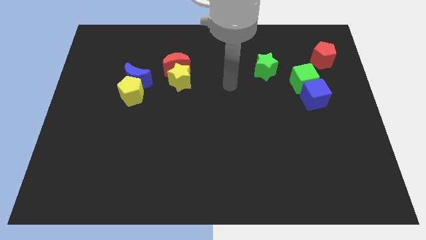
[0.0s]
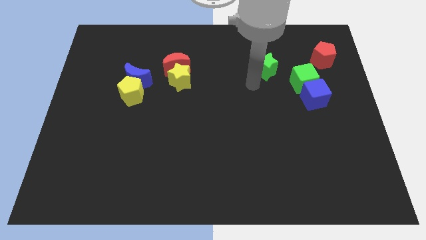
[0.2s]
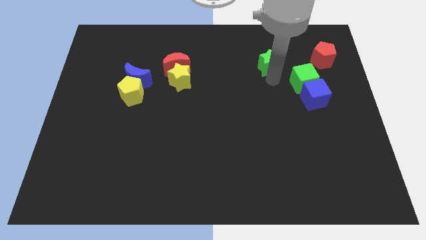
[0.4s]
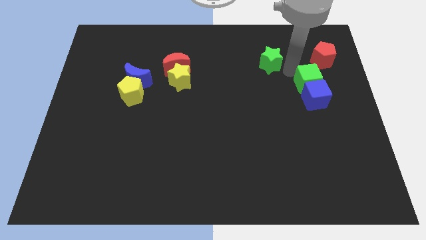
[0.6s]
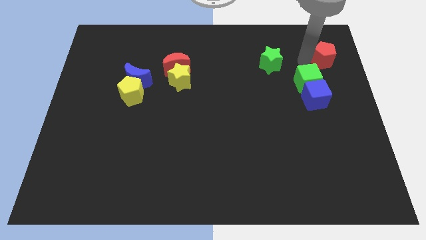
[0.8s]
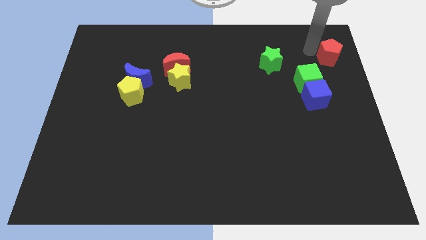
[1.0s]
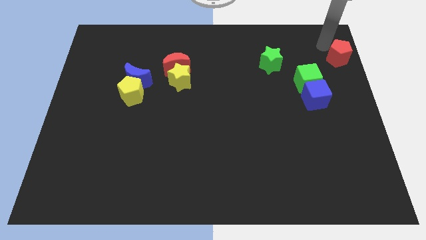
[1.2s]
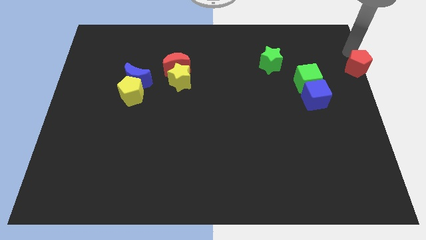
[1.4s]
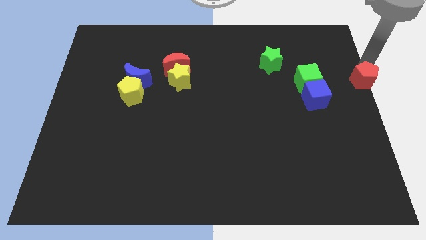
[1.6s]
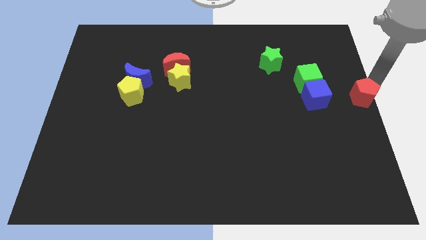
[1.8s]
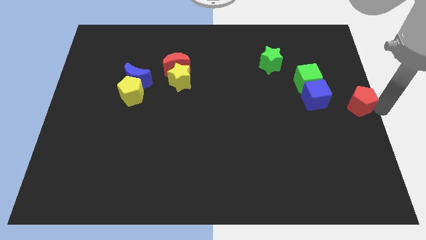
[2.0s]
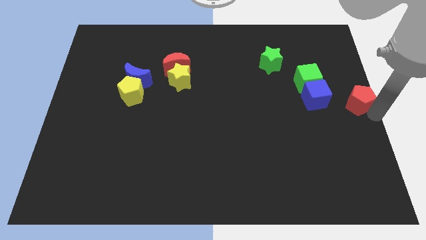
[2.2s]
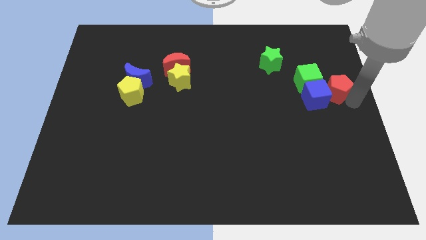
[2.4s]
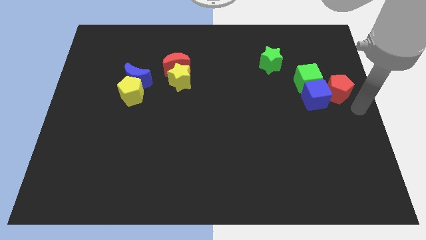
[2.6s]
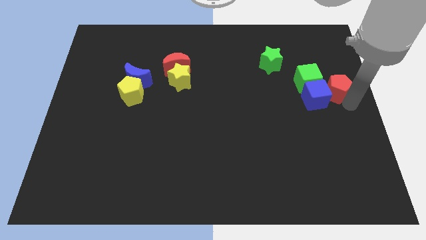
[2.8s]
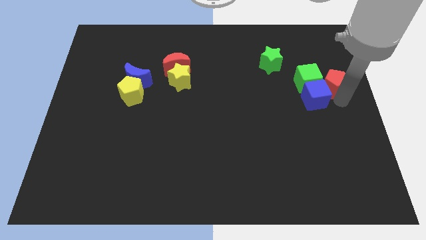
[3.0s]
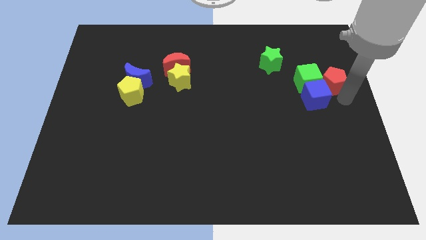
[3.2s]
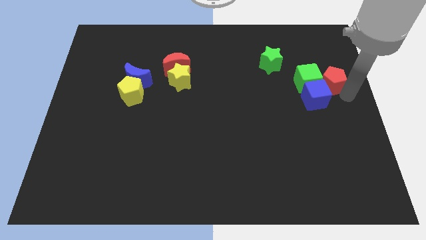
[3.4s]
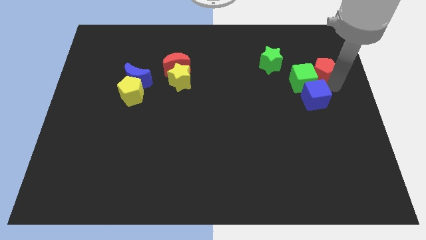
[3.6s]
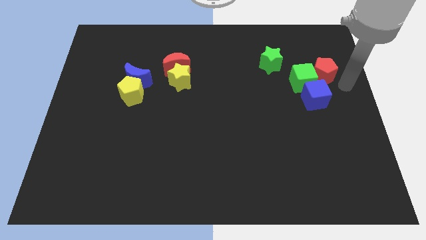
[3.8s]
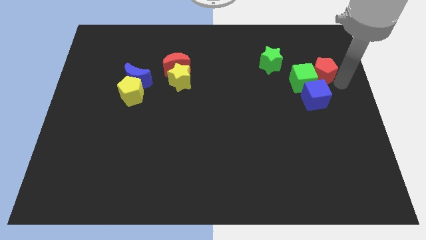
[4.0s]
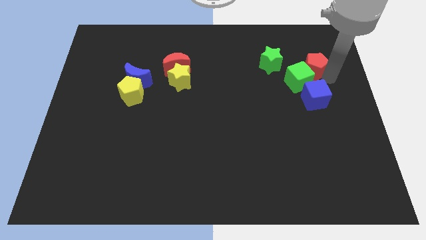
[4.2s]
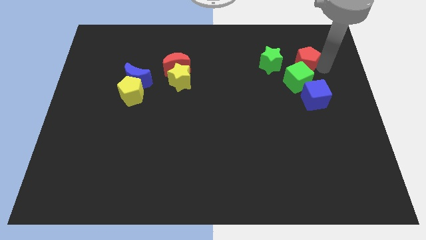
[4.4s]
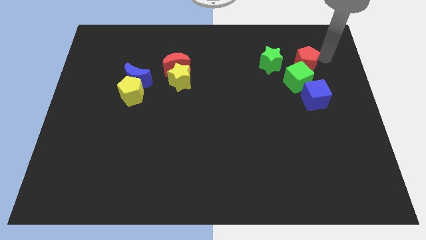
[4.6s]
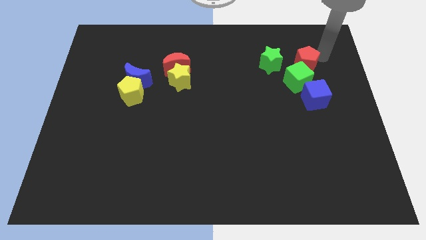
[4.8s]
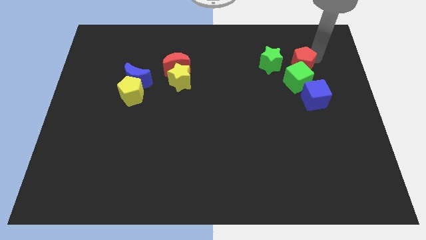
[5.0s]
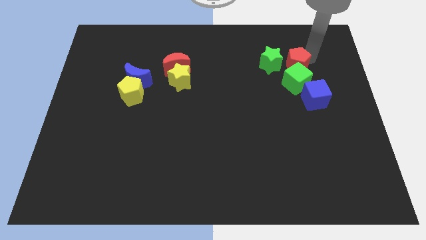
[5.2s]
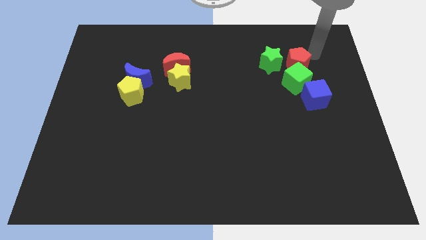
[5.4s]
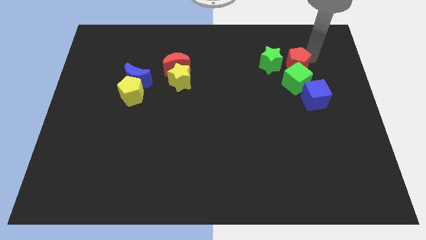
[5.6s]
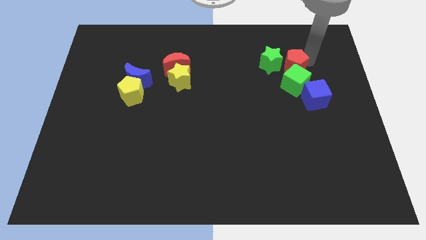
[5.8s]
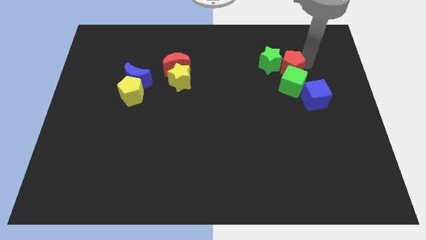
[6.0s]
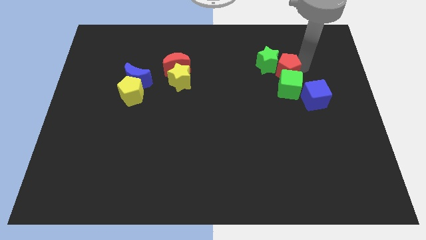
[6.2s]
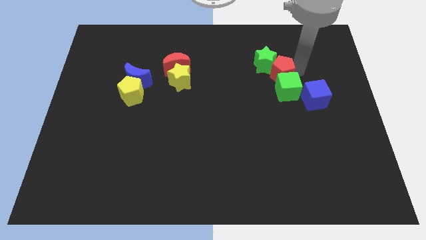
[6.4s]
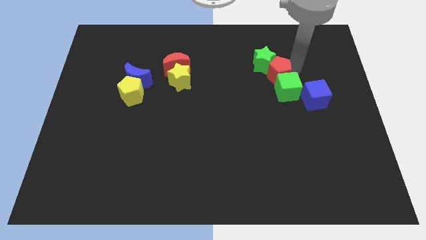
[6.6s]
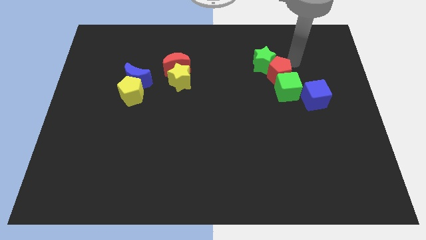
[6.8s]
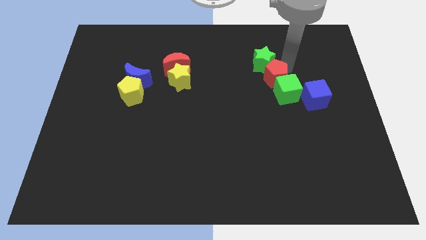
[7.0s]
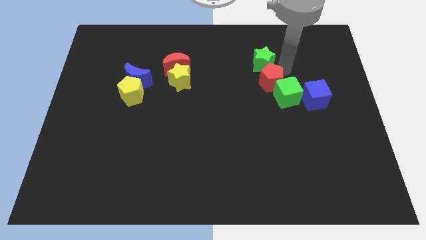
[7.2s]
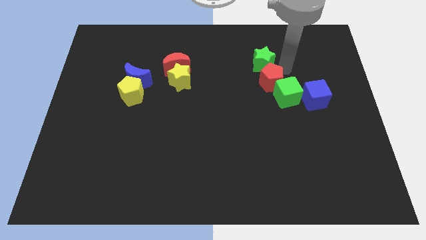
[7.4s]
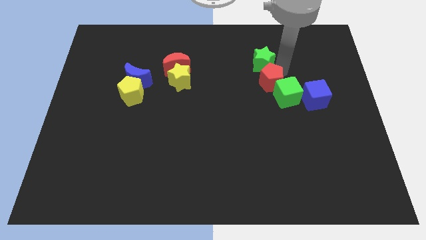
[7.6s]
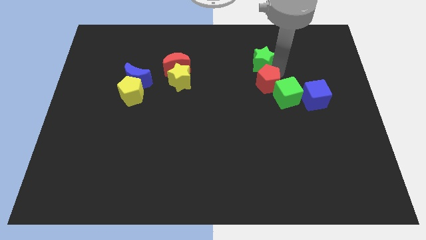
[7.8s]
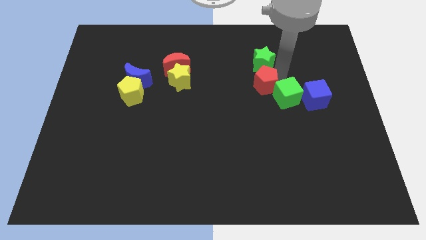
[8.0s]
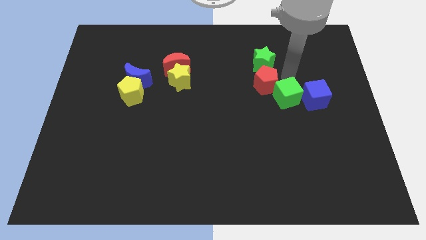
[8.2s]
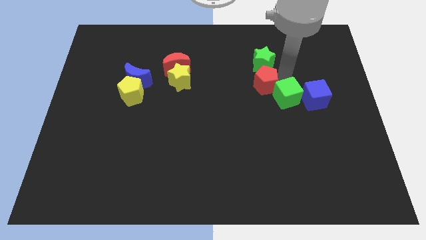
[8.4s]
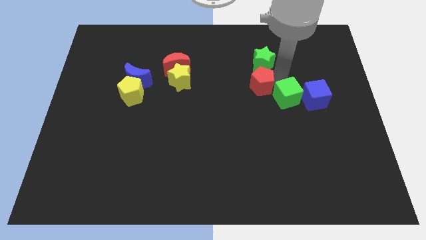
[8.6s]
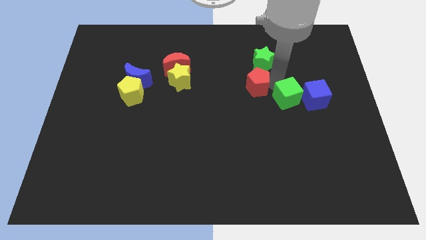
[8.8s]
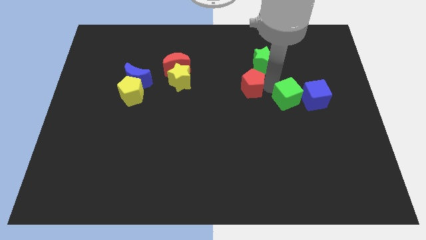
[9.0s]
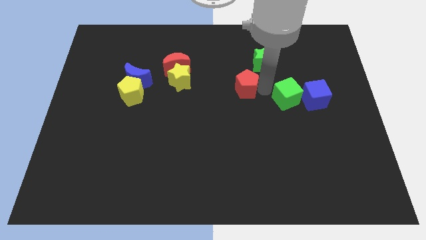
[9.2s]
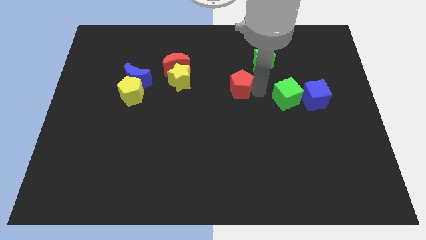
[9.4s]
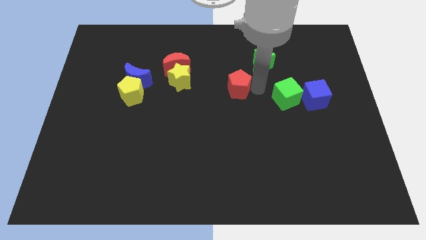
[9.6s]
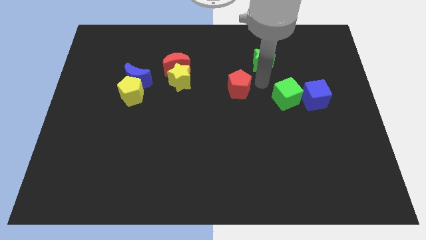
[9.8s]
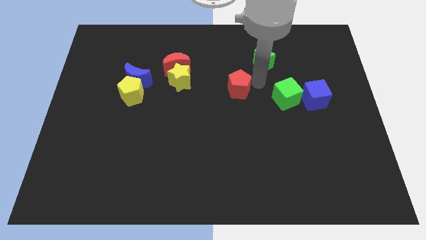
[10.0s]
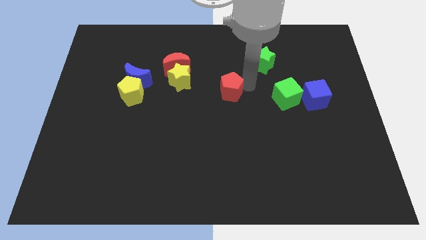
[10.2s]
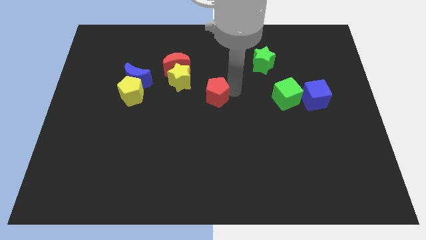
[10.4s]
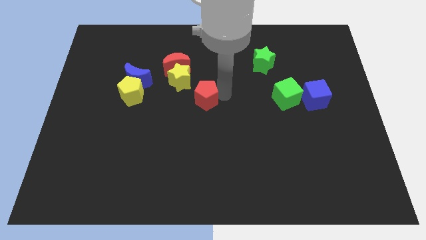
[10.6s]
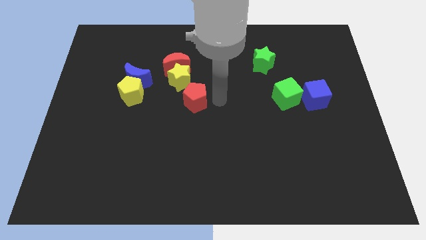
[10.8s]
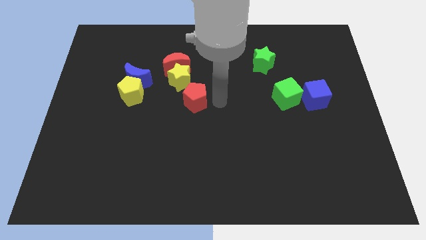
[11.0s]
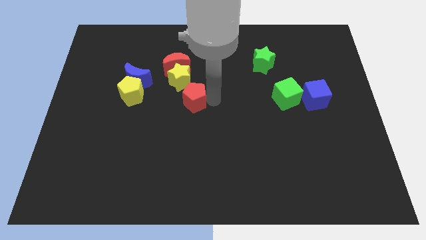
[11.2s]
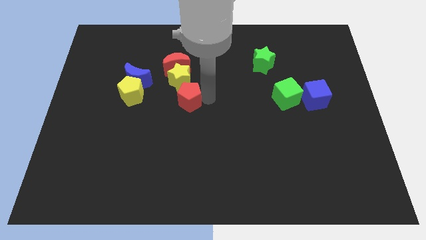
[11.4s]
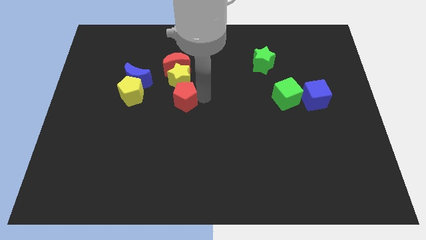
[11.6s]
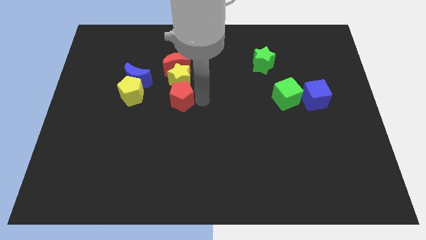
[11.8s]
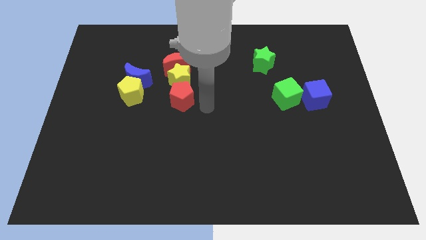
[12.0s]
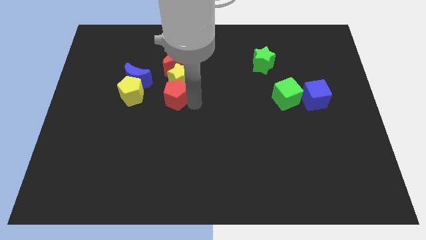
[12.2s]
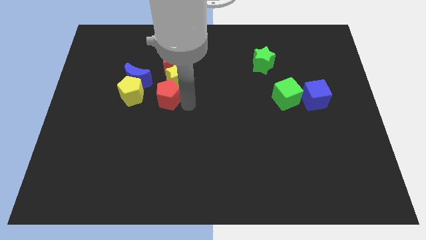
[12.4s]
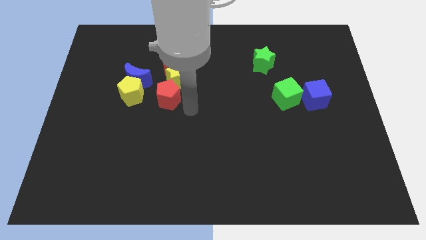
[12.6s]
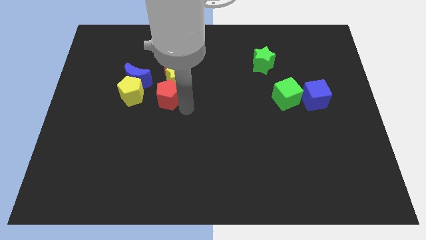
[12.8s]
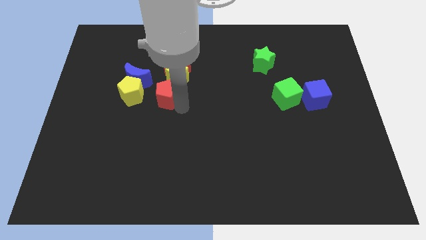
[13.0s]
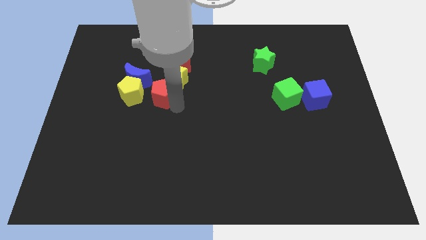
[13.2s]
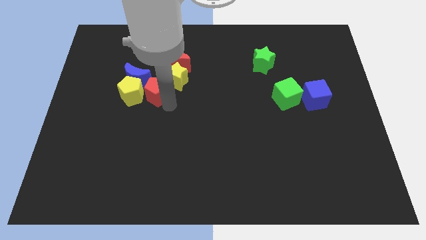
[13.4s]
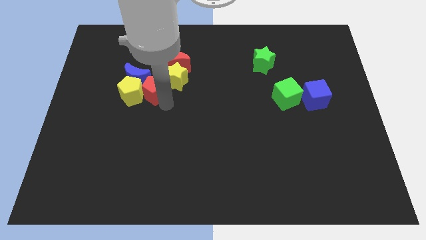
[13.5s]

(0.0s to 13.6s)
slide the red pentagon close to the blue moon
